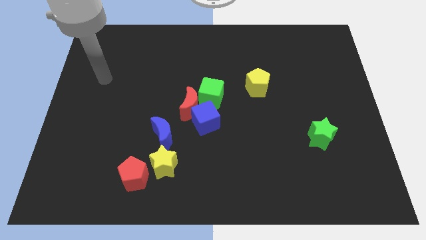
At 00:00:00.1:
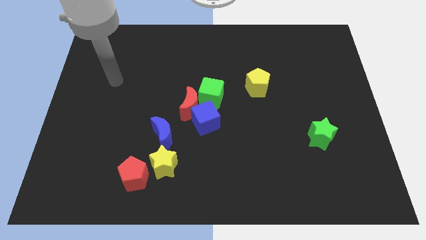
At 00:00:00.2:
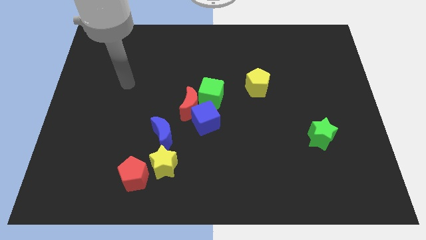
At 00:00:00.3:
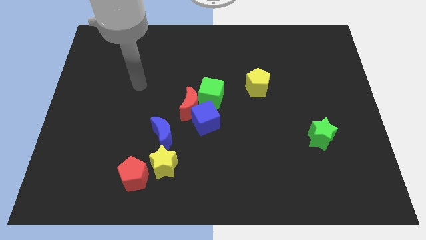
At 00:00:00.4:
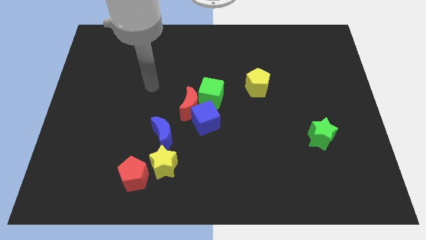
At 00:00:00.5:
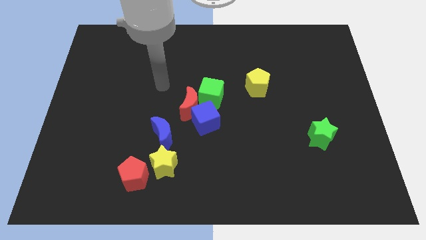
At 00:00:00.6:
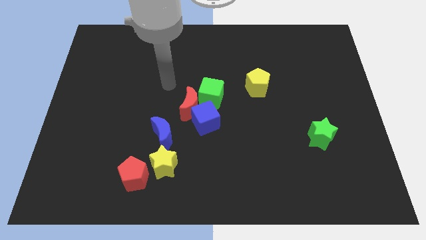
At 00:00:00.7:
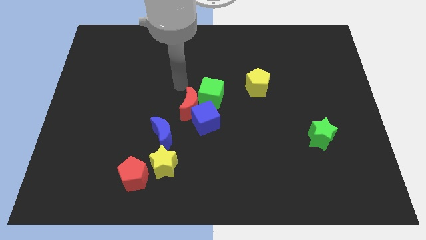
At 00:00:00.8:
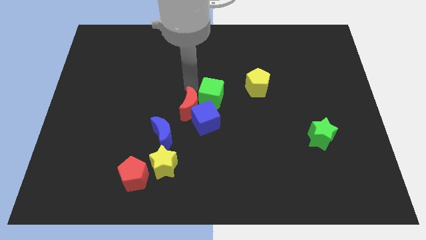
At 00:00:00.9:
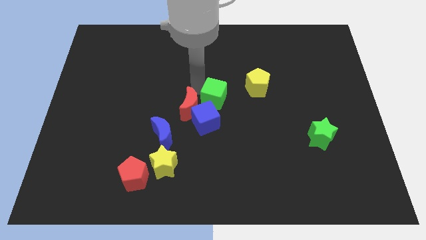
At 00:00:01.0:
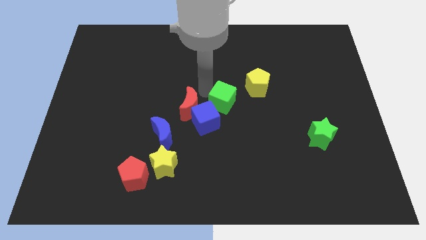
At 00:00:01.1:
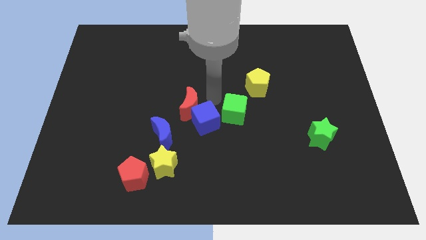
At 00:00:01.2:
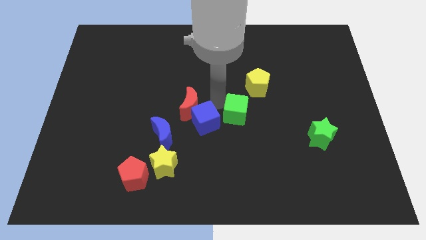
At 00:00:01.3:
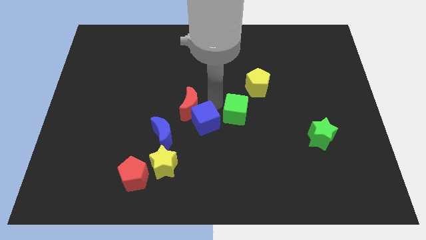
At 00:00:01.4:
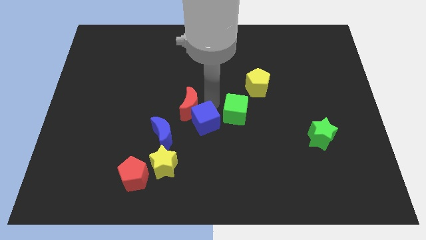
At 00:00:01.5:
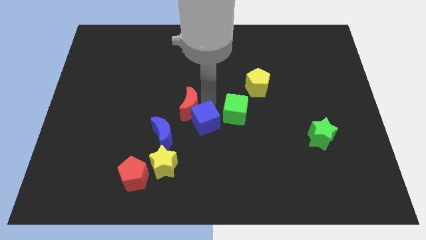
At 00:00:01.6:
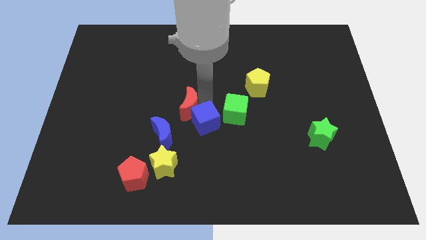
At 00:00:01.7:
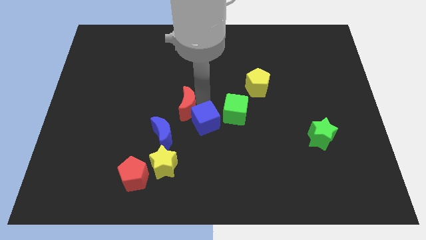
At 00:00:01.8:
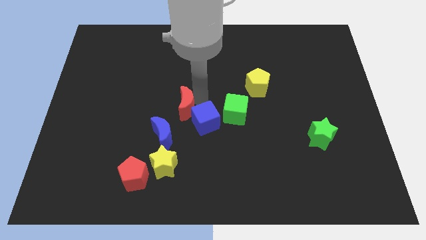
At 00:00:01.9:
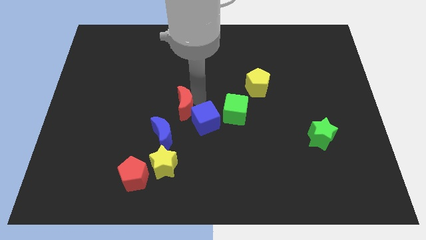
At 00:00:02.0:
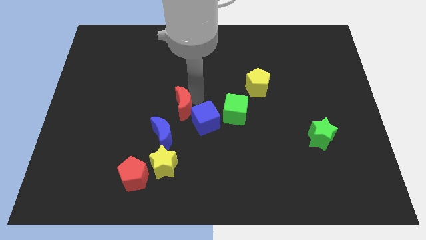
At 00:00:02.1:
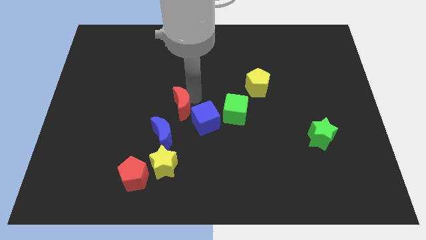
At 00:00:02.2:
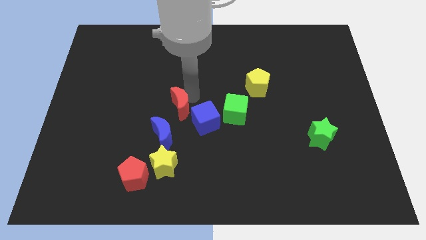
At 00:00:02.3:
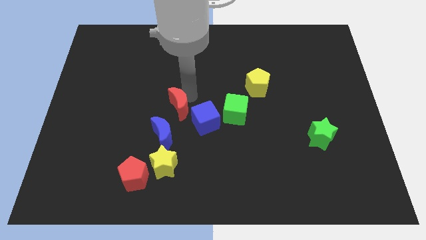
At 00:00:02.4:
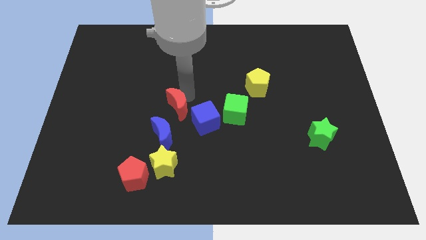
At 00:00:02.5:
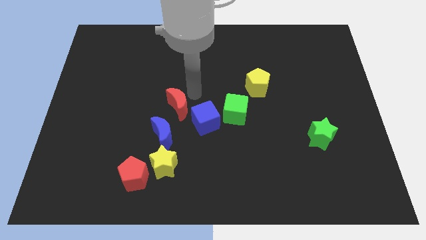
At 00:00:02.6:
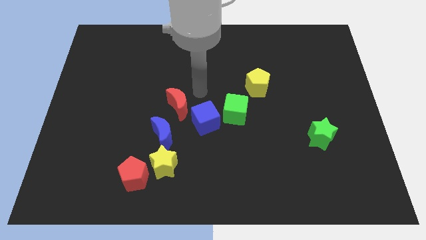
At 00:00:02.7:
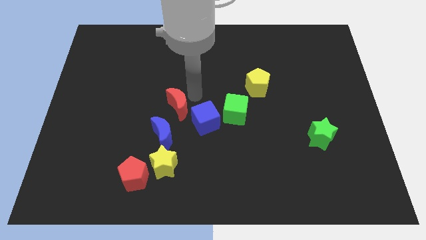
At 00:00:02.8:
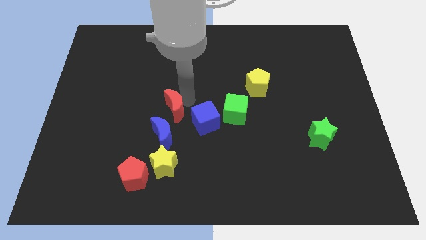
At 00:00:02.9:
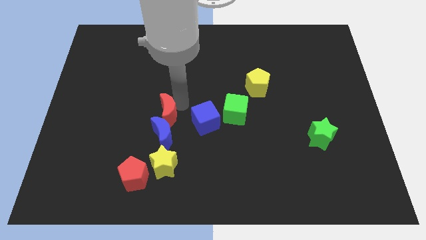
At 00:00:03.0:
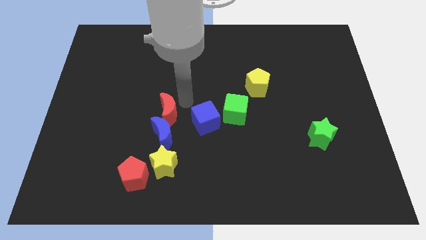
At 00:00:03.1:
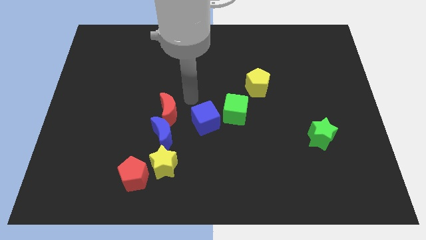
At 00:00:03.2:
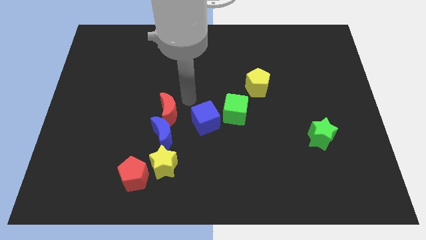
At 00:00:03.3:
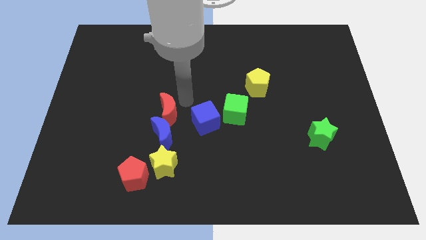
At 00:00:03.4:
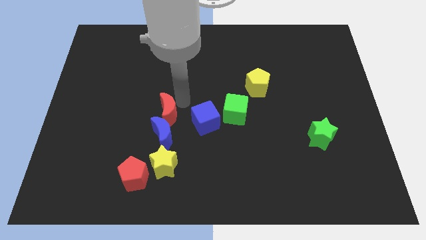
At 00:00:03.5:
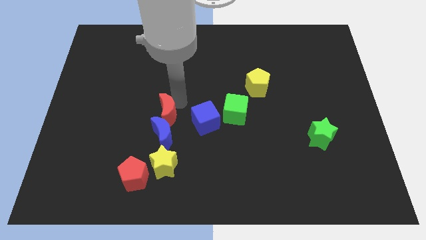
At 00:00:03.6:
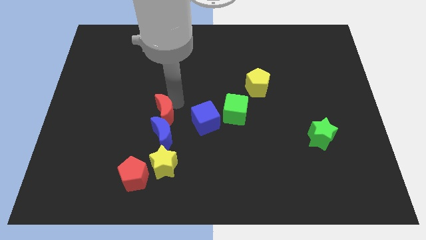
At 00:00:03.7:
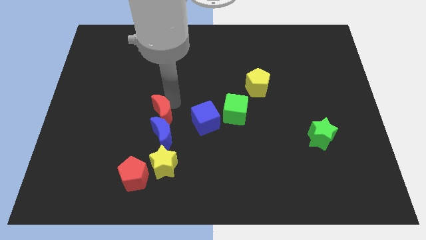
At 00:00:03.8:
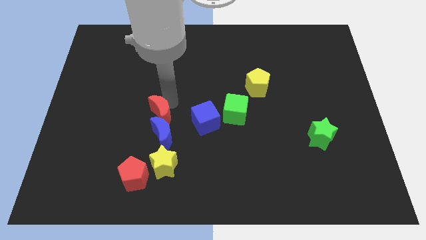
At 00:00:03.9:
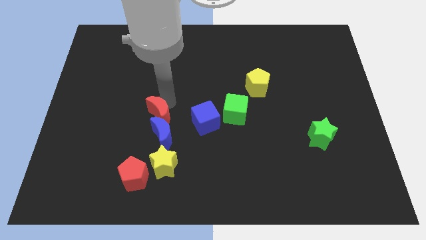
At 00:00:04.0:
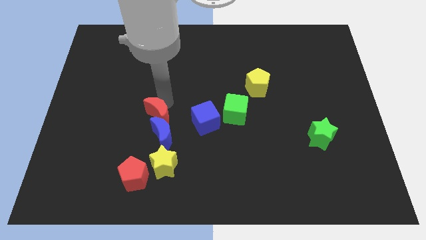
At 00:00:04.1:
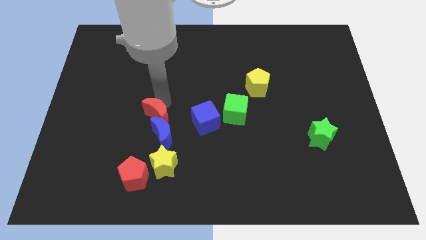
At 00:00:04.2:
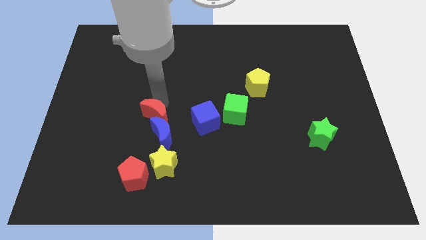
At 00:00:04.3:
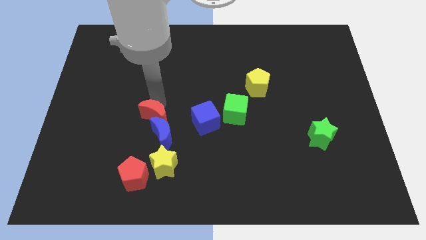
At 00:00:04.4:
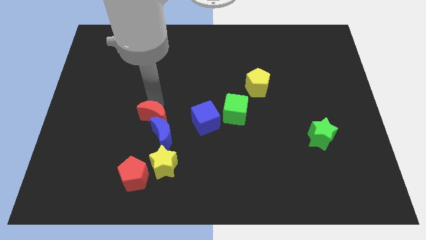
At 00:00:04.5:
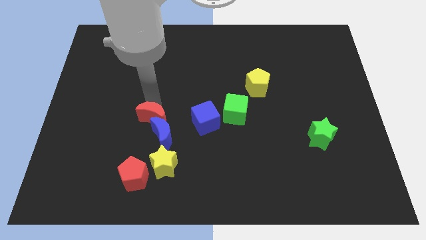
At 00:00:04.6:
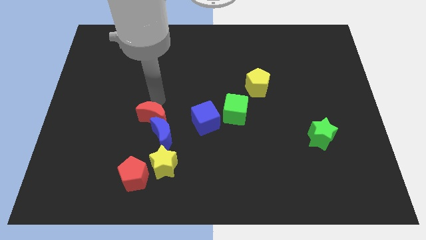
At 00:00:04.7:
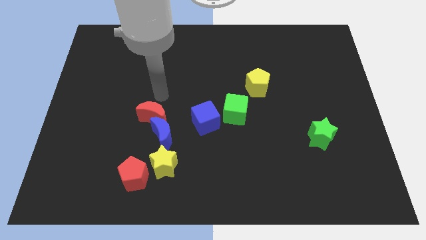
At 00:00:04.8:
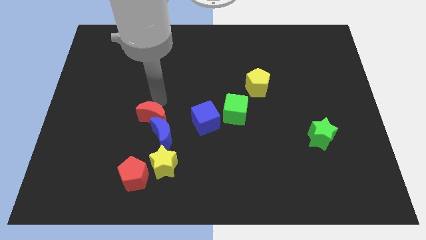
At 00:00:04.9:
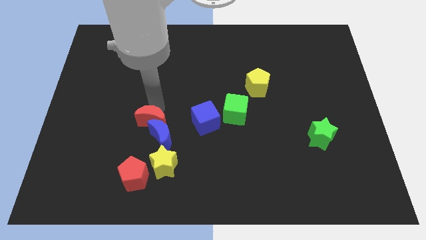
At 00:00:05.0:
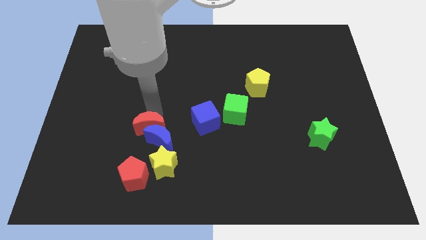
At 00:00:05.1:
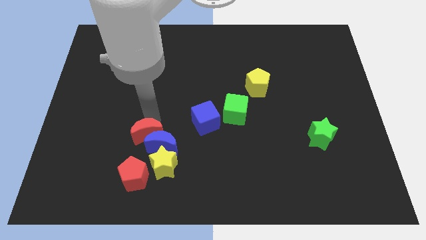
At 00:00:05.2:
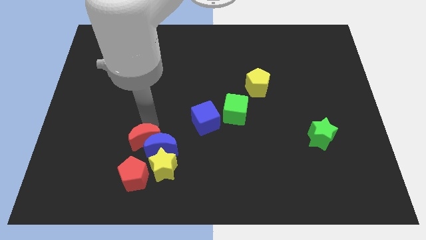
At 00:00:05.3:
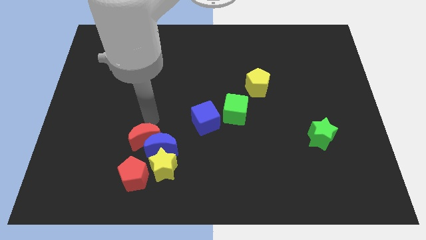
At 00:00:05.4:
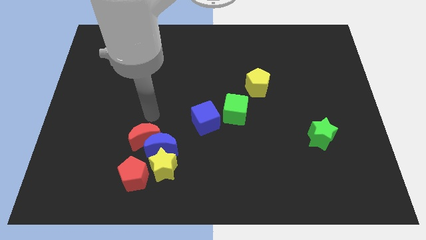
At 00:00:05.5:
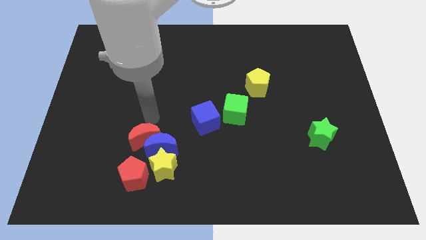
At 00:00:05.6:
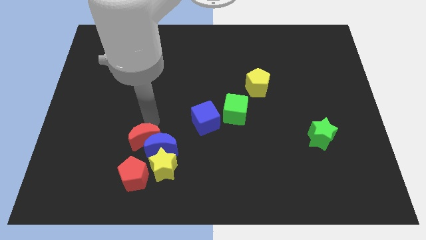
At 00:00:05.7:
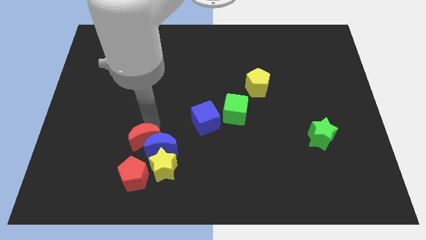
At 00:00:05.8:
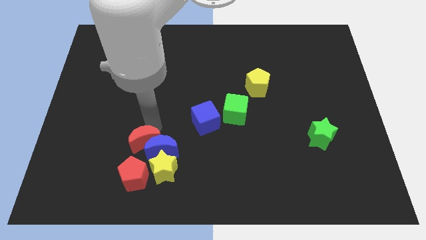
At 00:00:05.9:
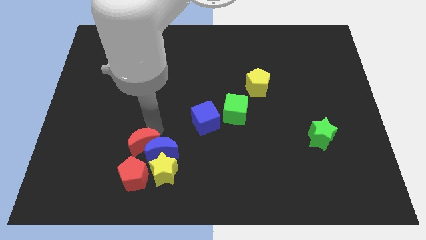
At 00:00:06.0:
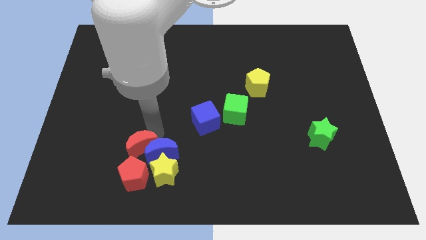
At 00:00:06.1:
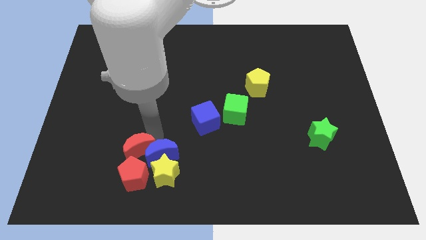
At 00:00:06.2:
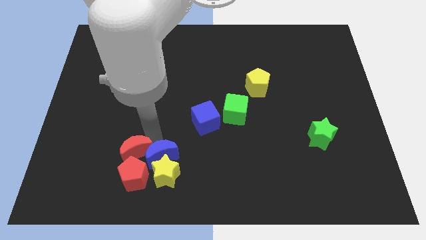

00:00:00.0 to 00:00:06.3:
push the red moon to the red pentagon

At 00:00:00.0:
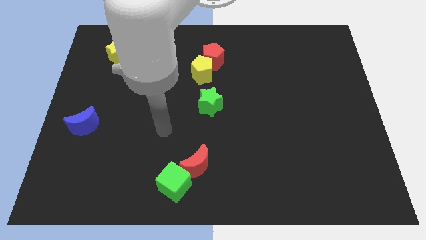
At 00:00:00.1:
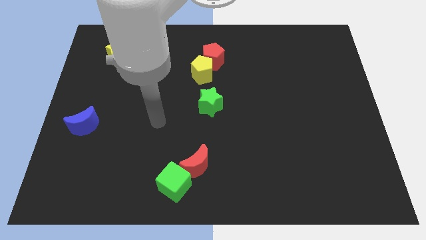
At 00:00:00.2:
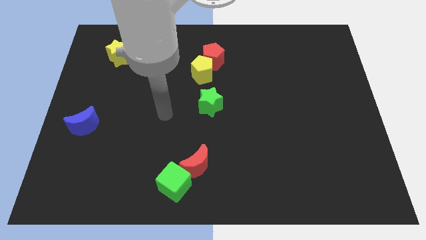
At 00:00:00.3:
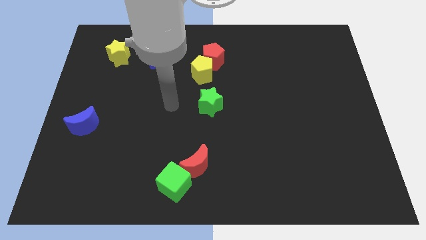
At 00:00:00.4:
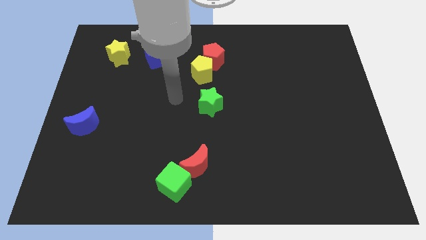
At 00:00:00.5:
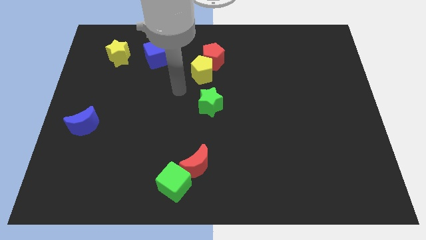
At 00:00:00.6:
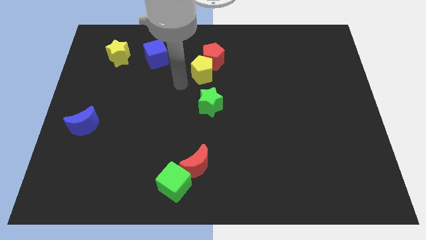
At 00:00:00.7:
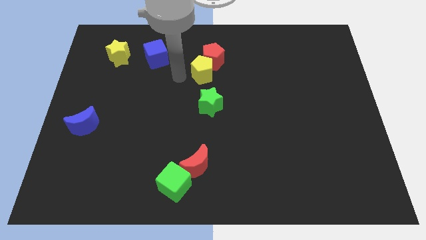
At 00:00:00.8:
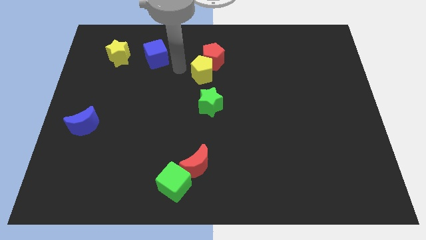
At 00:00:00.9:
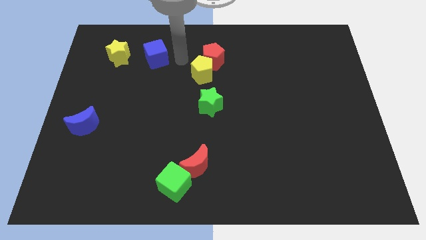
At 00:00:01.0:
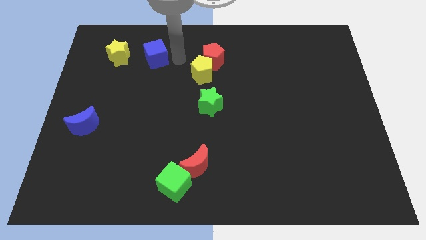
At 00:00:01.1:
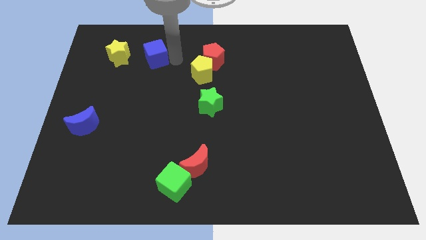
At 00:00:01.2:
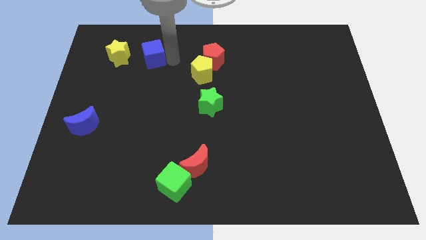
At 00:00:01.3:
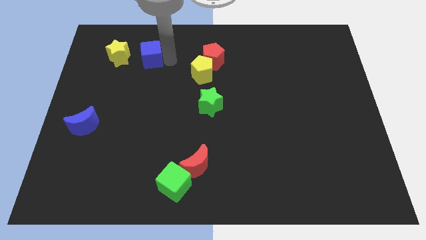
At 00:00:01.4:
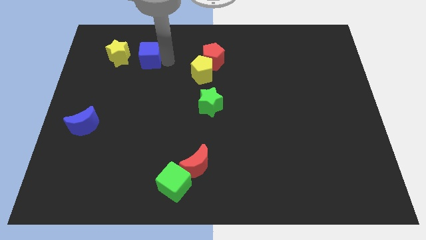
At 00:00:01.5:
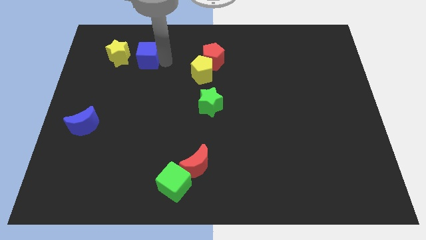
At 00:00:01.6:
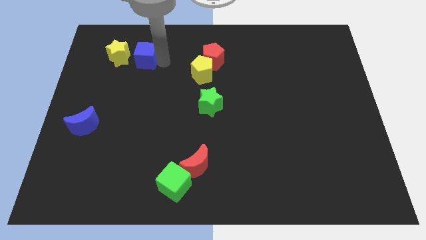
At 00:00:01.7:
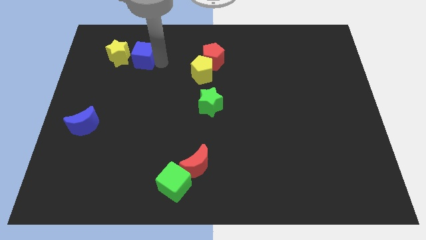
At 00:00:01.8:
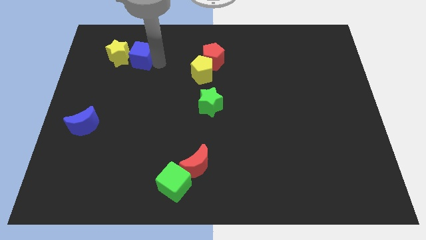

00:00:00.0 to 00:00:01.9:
put the blue cube towards the yellow star
